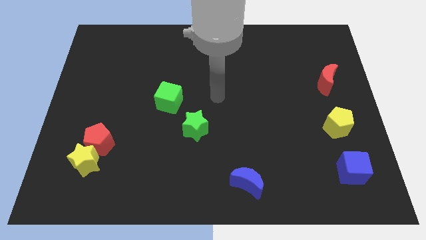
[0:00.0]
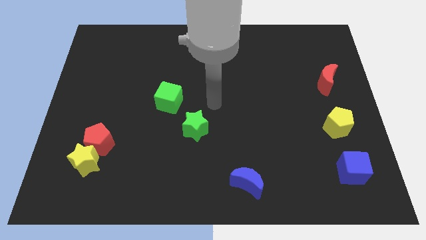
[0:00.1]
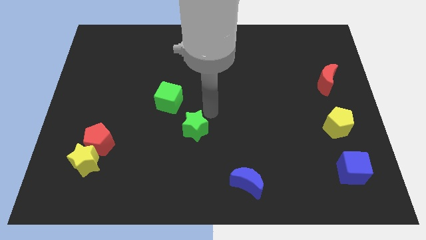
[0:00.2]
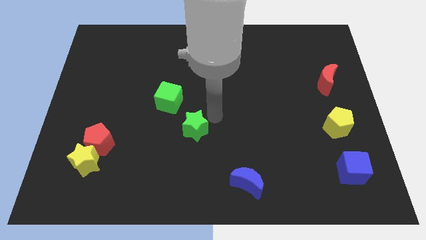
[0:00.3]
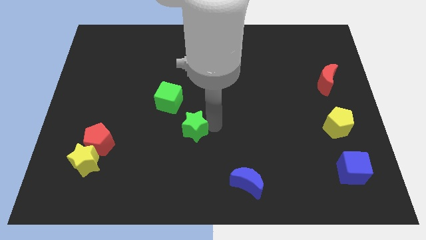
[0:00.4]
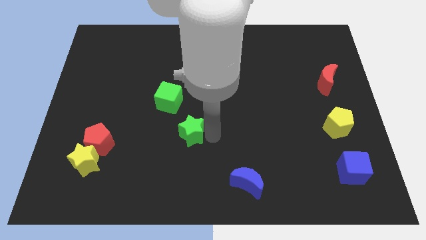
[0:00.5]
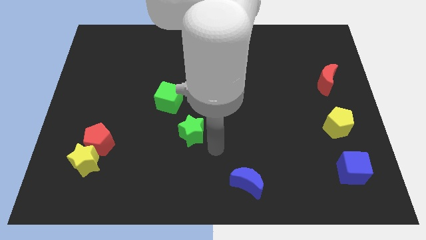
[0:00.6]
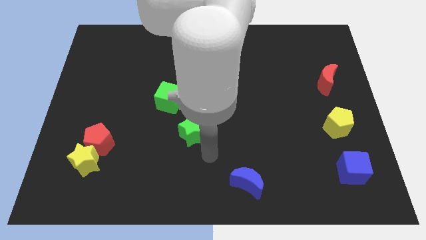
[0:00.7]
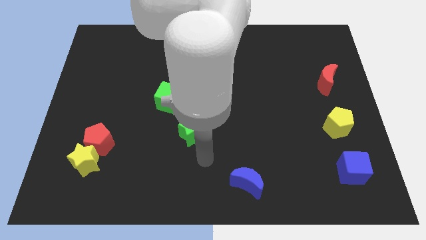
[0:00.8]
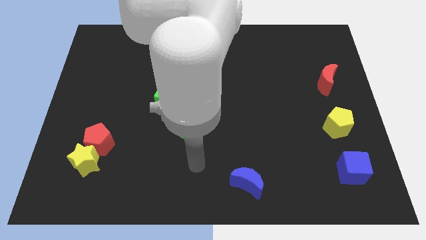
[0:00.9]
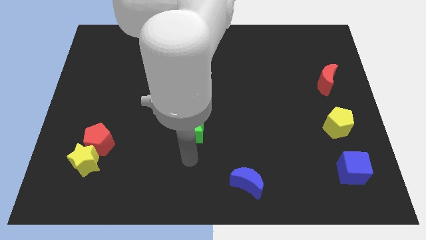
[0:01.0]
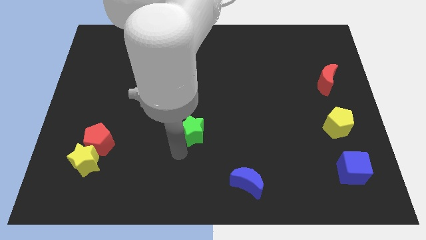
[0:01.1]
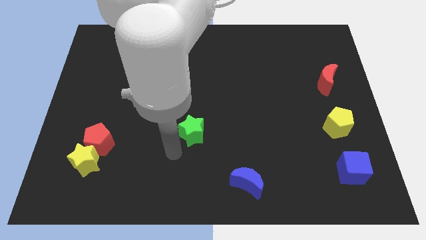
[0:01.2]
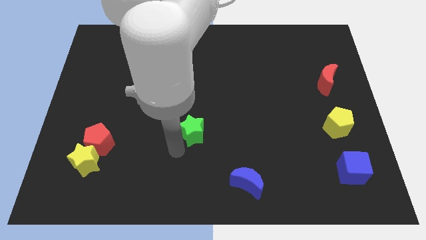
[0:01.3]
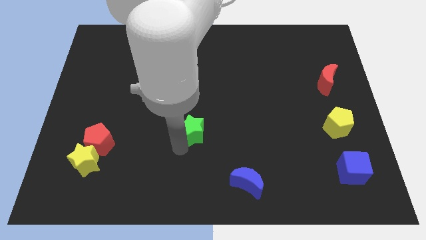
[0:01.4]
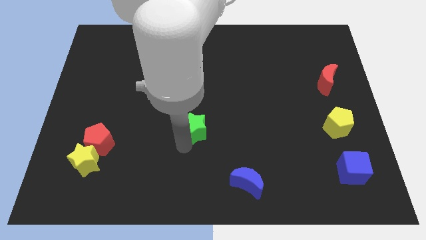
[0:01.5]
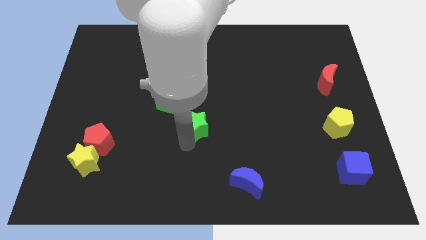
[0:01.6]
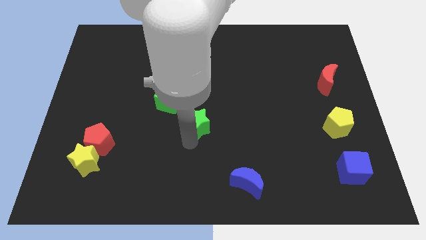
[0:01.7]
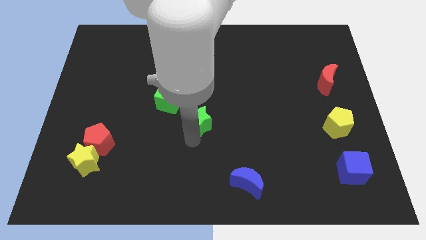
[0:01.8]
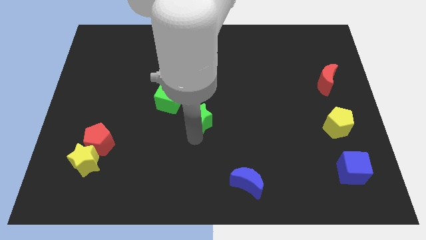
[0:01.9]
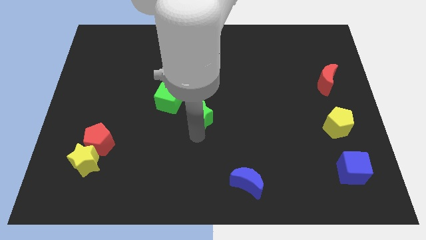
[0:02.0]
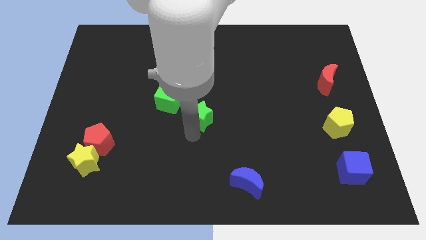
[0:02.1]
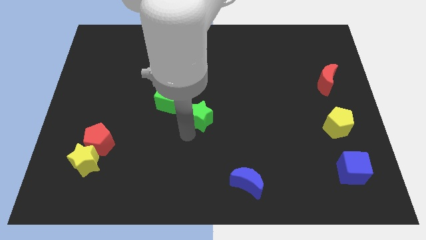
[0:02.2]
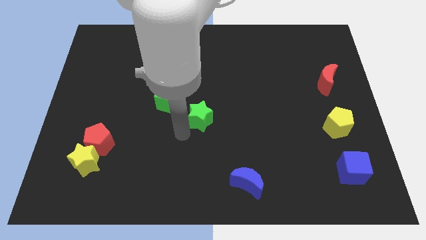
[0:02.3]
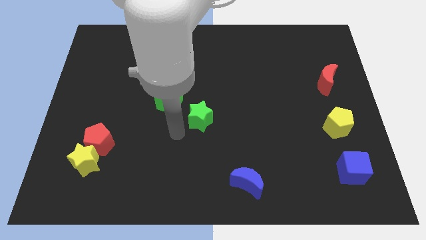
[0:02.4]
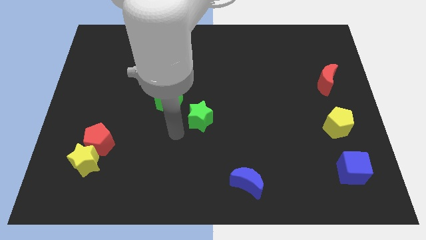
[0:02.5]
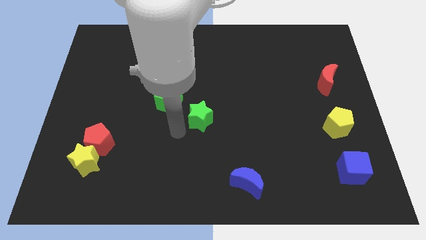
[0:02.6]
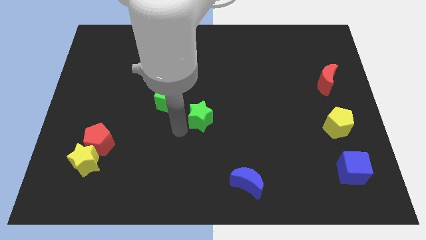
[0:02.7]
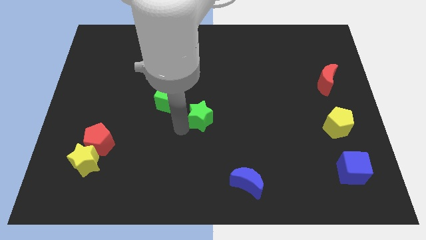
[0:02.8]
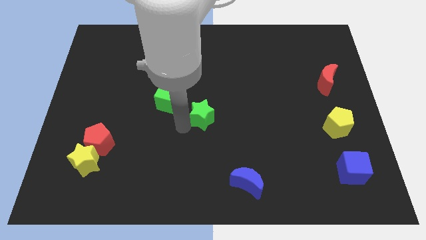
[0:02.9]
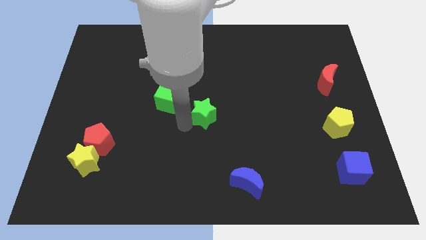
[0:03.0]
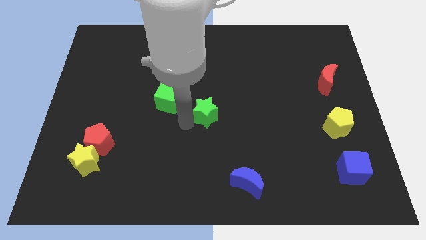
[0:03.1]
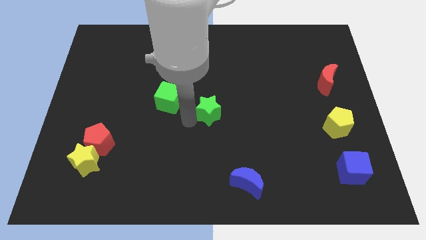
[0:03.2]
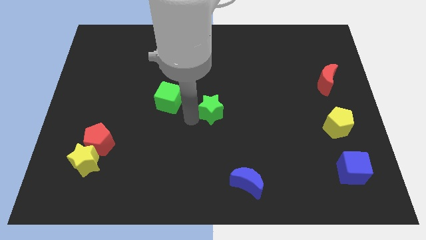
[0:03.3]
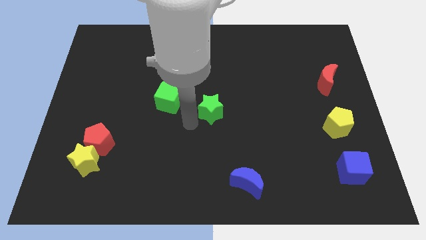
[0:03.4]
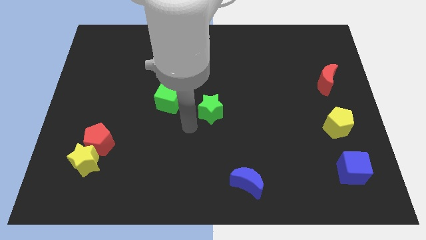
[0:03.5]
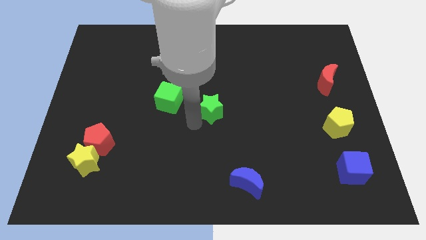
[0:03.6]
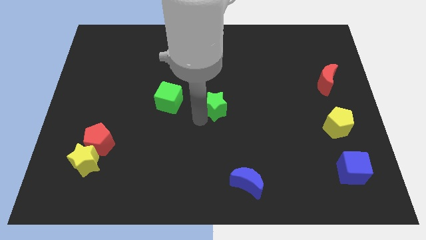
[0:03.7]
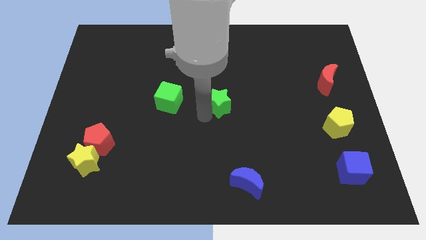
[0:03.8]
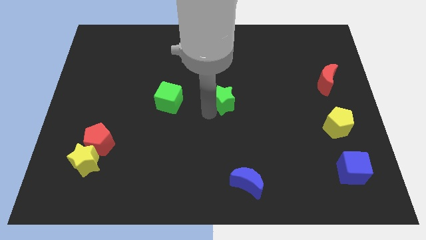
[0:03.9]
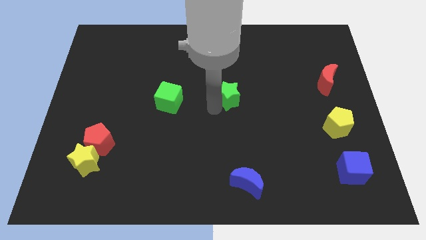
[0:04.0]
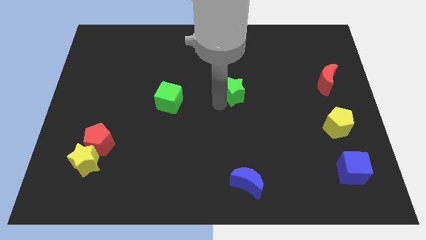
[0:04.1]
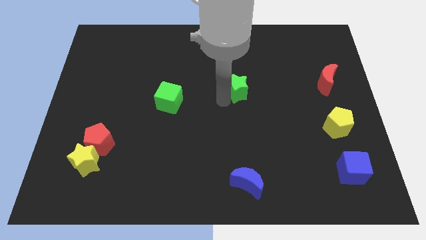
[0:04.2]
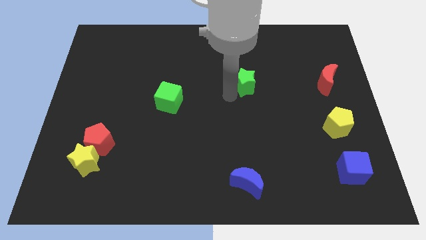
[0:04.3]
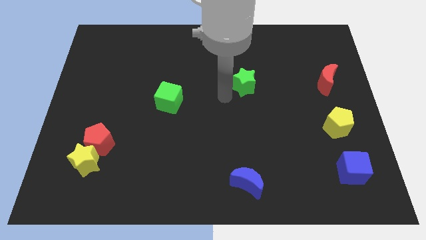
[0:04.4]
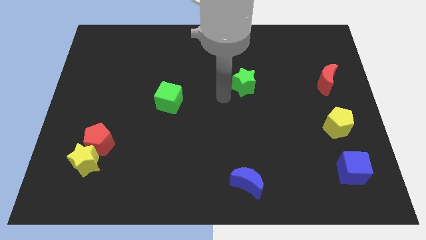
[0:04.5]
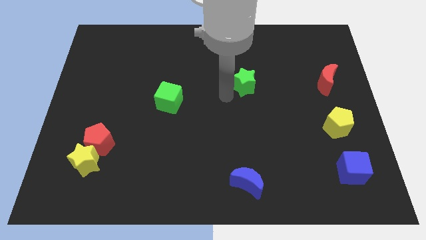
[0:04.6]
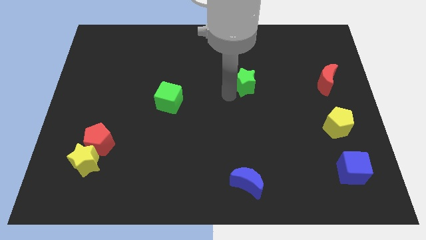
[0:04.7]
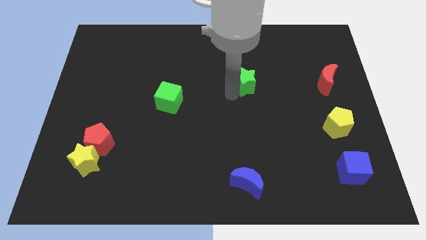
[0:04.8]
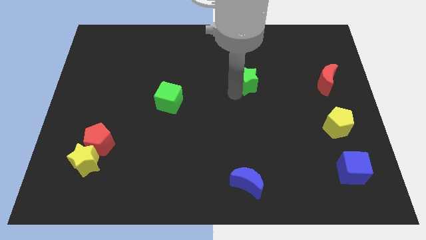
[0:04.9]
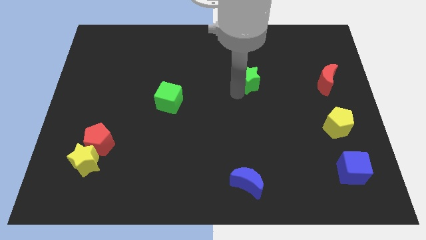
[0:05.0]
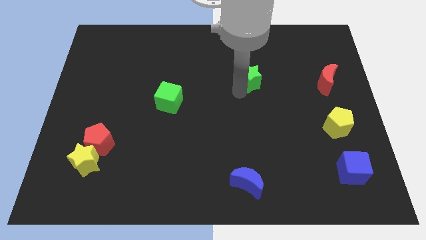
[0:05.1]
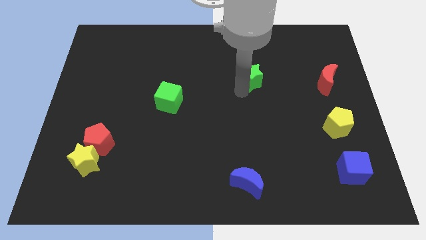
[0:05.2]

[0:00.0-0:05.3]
slide the green star upwards and to the right

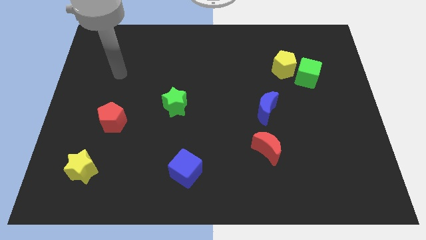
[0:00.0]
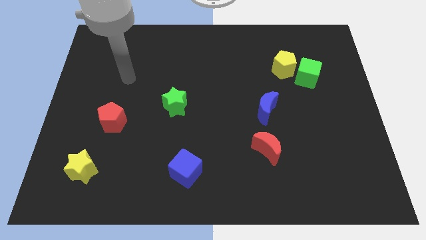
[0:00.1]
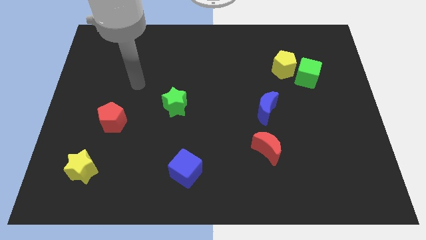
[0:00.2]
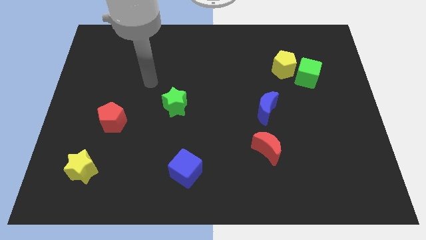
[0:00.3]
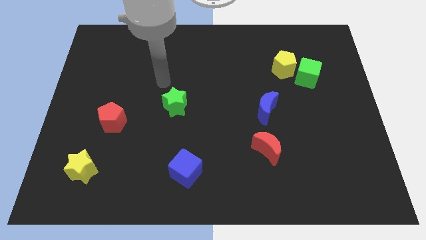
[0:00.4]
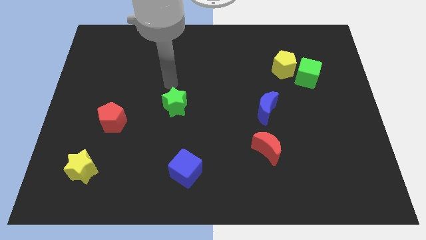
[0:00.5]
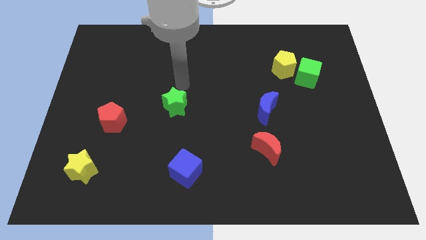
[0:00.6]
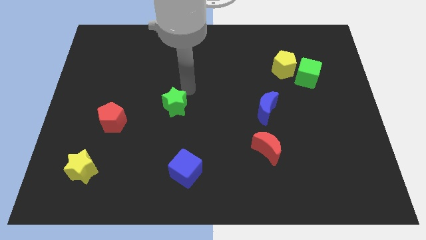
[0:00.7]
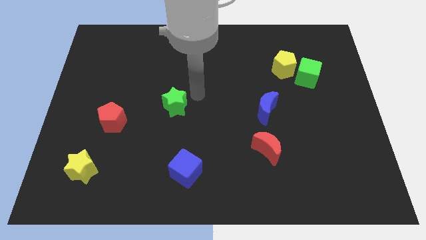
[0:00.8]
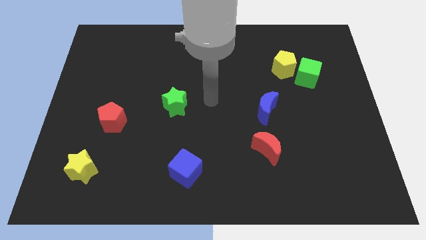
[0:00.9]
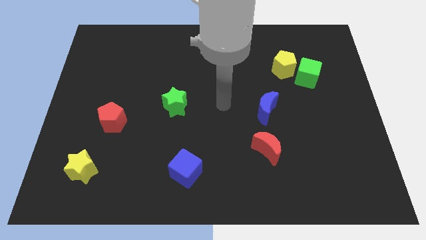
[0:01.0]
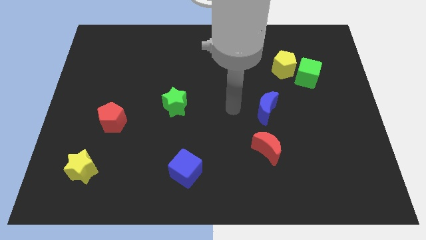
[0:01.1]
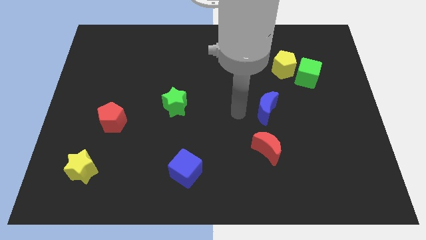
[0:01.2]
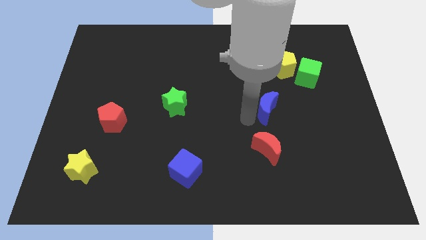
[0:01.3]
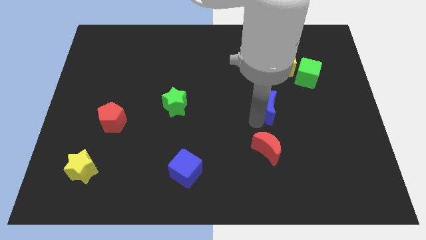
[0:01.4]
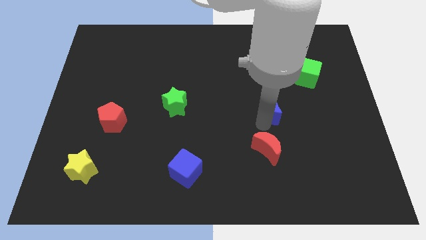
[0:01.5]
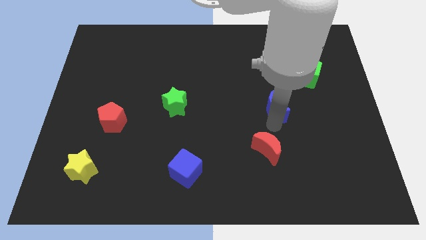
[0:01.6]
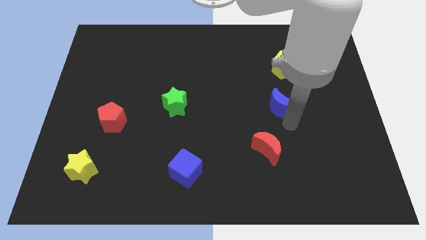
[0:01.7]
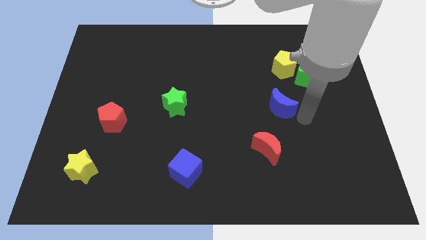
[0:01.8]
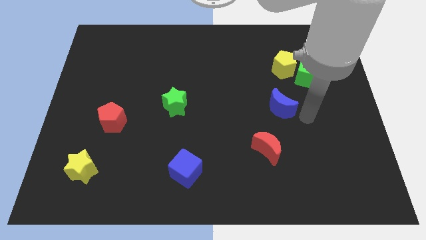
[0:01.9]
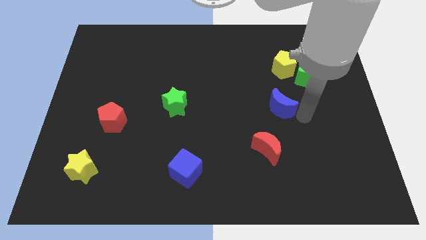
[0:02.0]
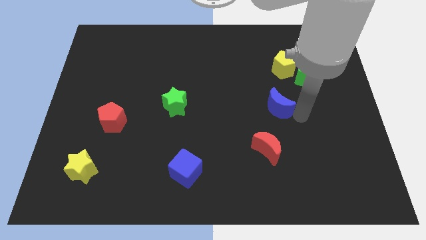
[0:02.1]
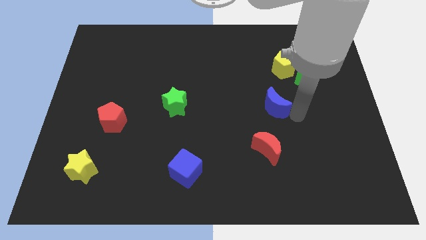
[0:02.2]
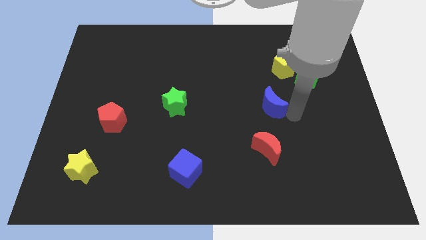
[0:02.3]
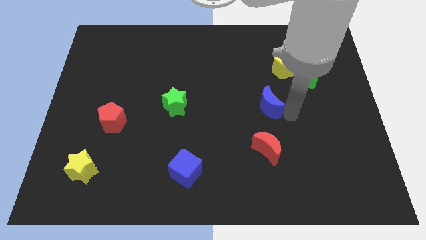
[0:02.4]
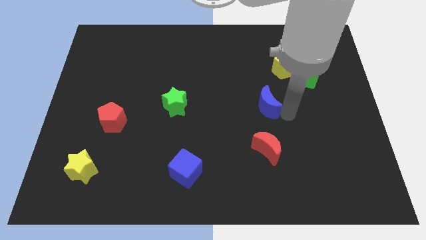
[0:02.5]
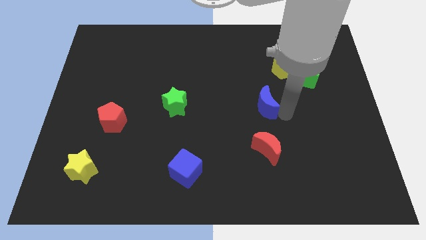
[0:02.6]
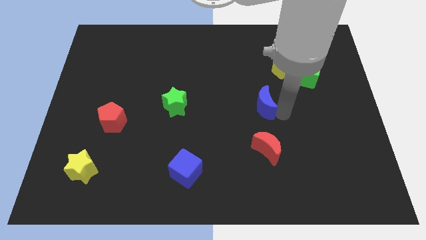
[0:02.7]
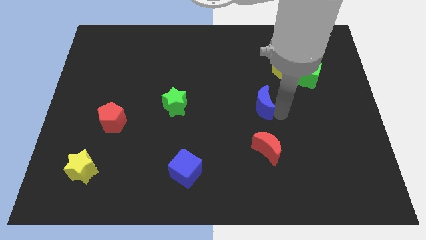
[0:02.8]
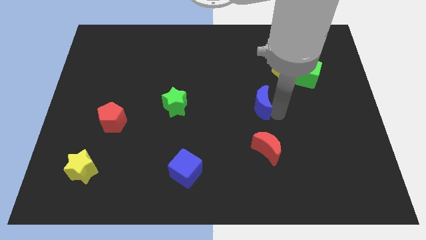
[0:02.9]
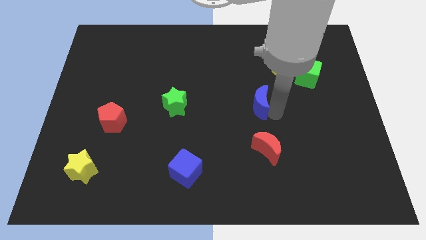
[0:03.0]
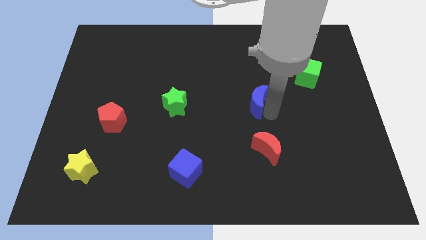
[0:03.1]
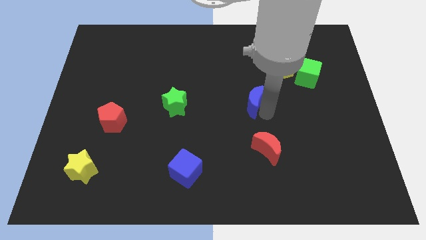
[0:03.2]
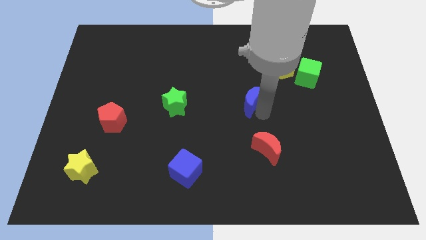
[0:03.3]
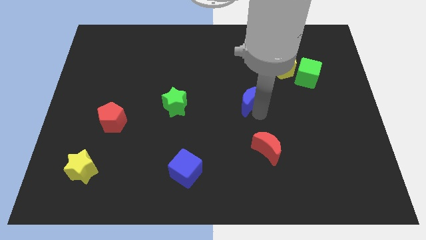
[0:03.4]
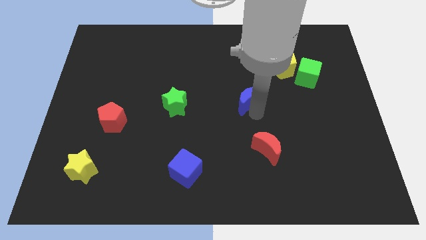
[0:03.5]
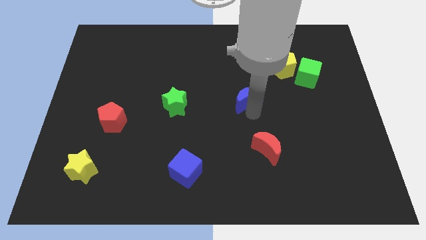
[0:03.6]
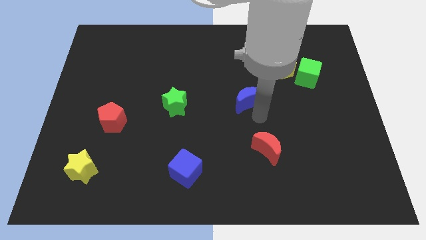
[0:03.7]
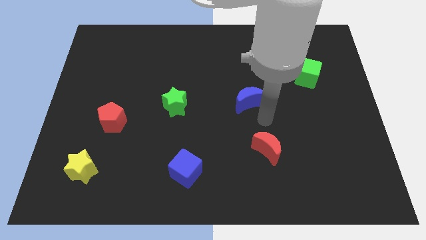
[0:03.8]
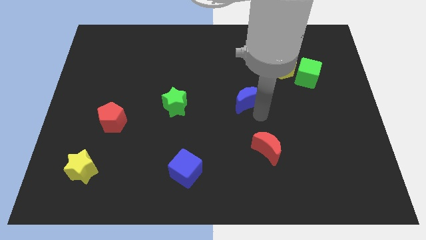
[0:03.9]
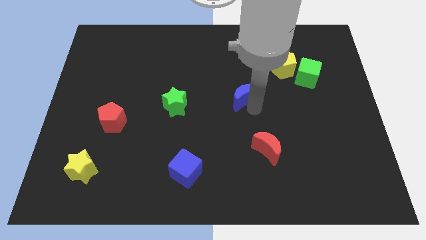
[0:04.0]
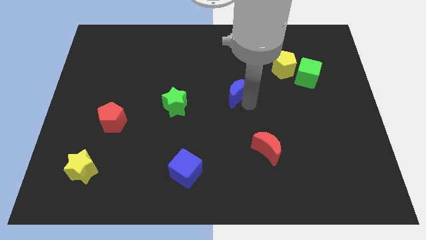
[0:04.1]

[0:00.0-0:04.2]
slide the blue moon up and to the left diagonally a little
